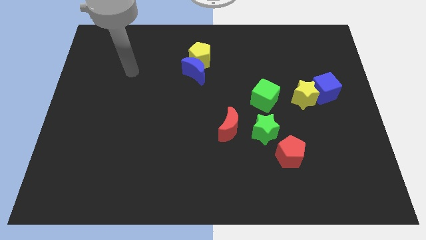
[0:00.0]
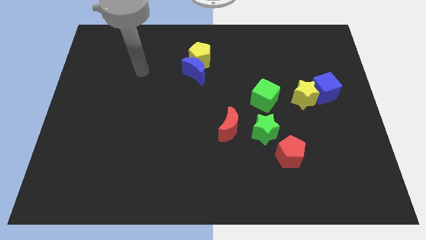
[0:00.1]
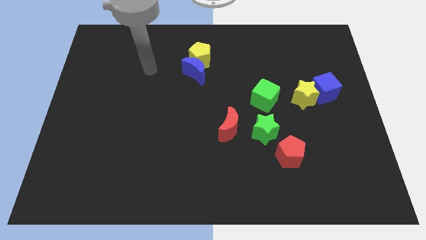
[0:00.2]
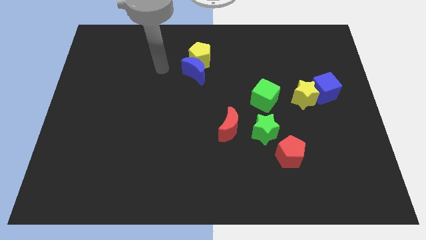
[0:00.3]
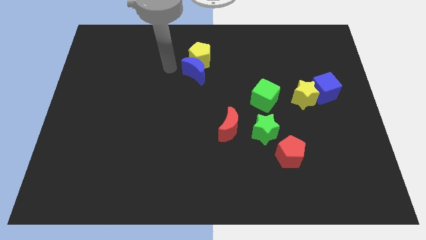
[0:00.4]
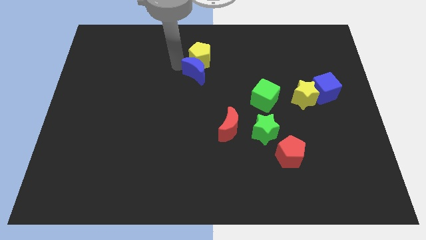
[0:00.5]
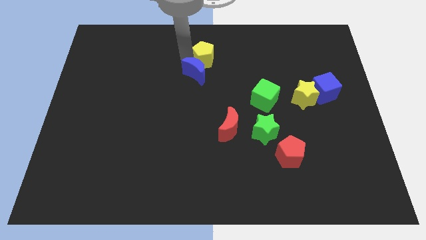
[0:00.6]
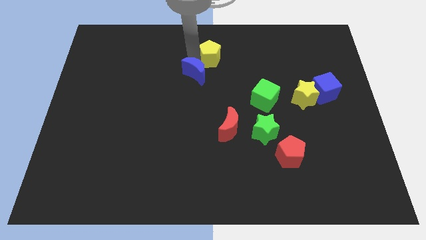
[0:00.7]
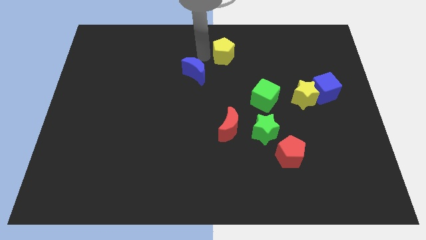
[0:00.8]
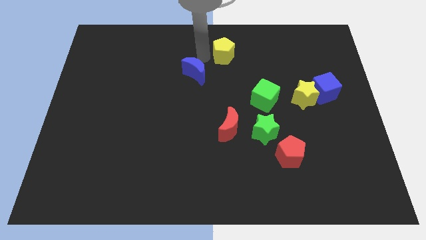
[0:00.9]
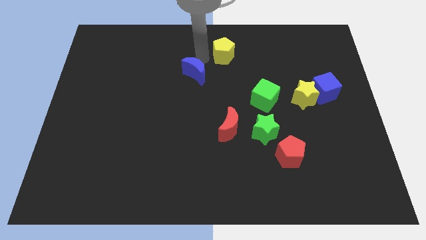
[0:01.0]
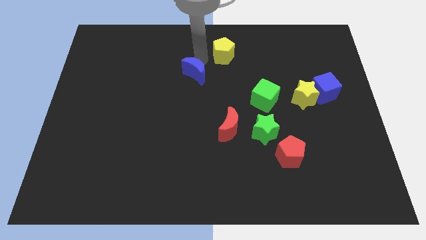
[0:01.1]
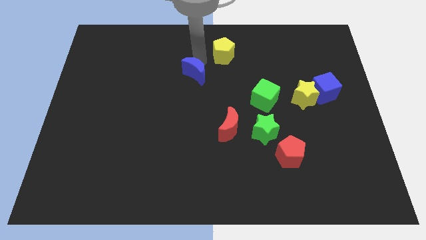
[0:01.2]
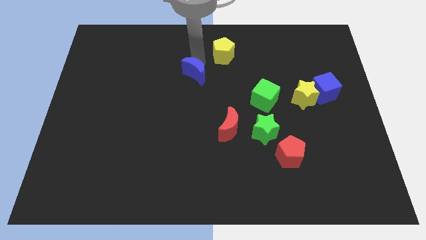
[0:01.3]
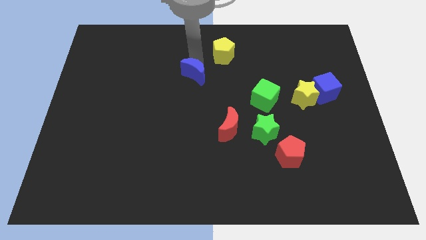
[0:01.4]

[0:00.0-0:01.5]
move the blue moon away from the yellow pentagon

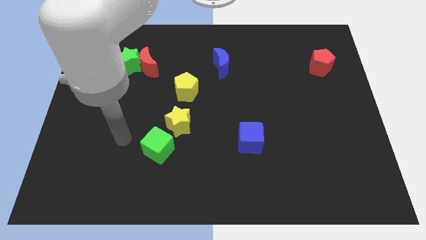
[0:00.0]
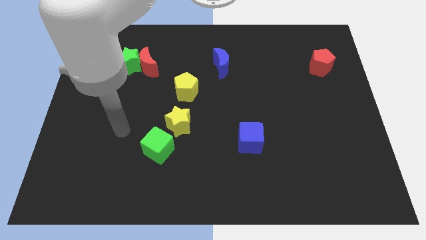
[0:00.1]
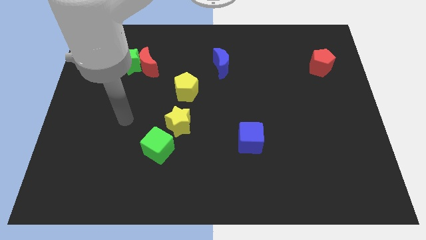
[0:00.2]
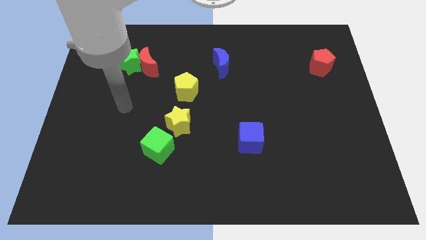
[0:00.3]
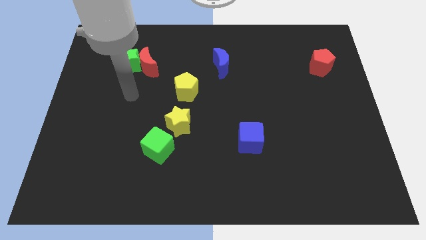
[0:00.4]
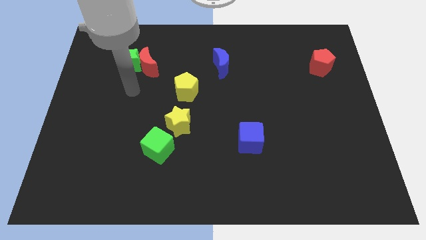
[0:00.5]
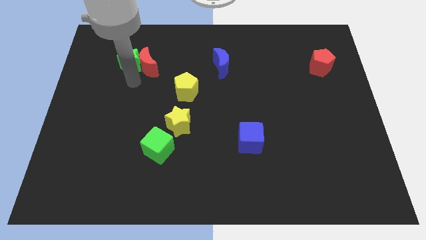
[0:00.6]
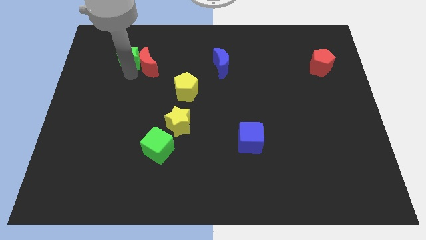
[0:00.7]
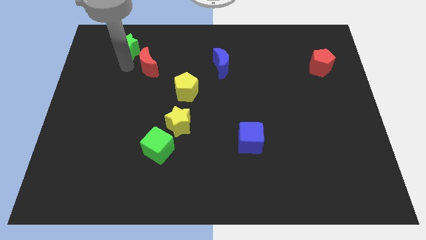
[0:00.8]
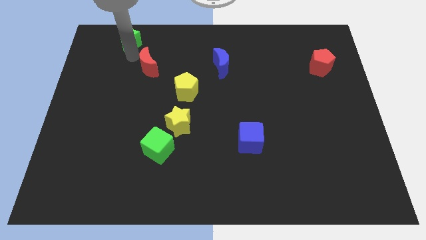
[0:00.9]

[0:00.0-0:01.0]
separate the red moon from the green star

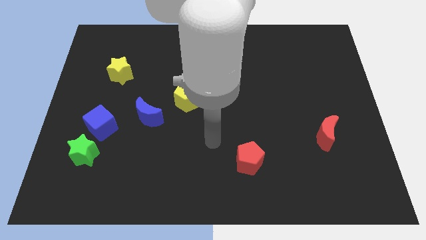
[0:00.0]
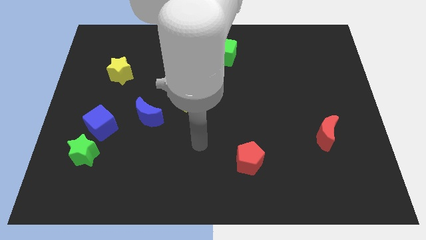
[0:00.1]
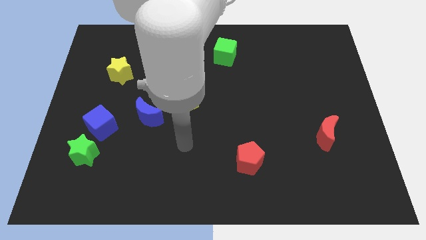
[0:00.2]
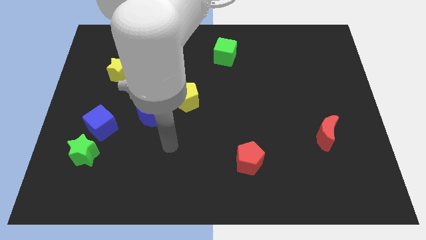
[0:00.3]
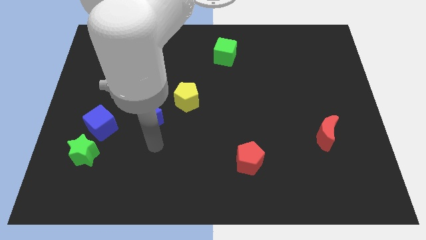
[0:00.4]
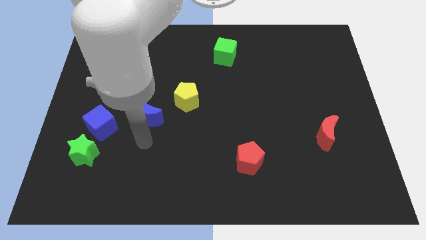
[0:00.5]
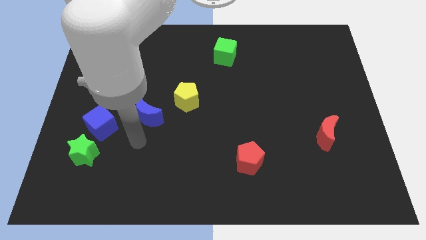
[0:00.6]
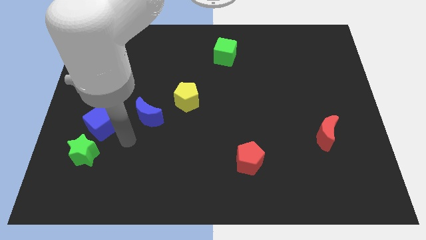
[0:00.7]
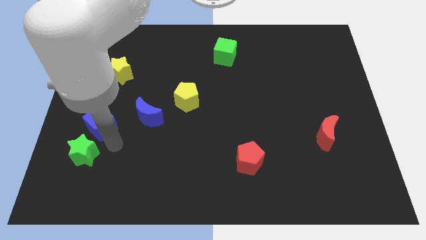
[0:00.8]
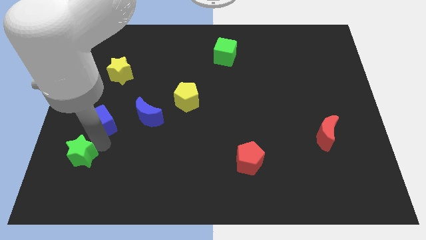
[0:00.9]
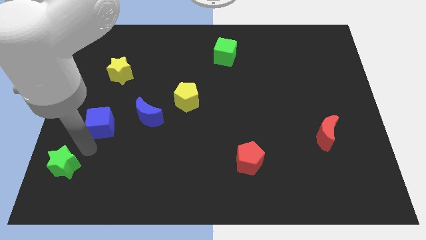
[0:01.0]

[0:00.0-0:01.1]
pull the blue cube apart from the green star

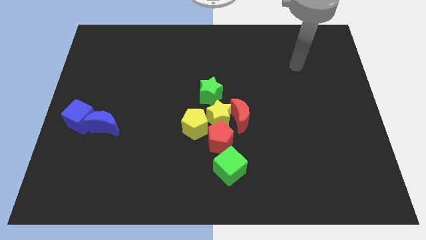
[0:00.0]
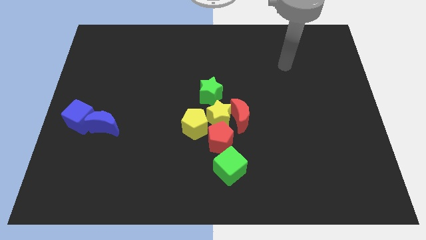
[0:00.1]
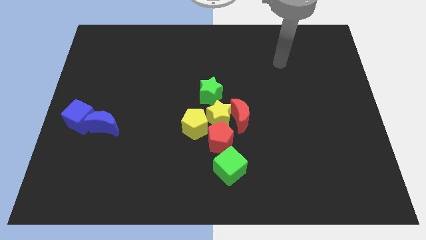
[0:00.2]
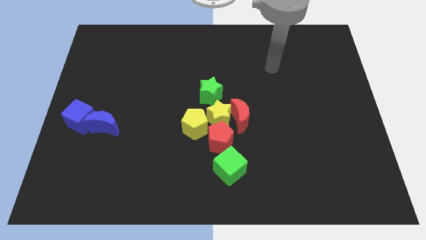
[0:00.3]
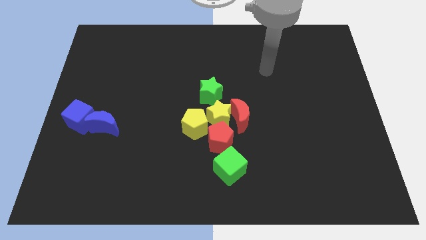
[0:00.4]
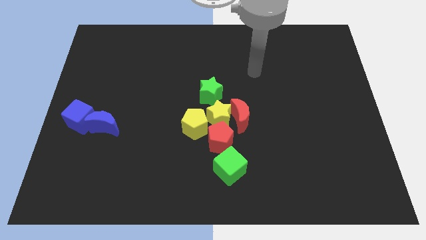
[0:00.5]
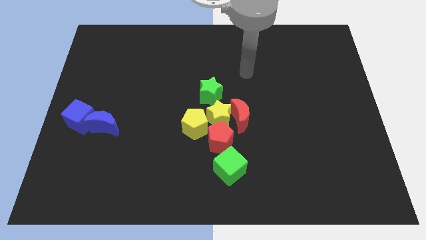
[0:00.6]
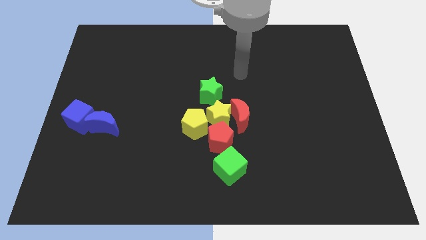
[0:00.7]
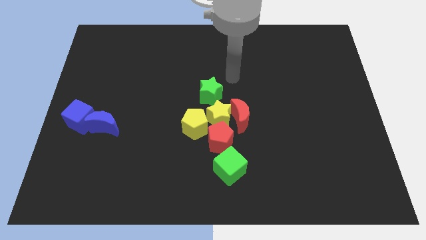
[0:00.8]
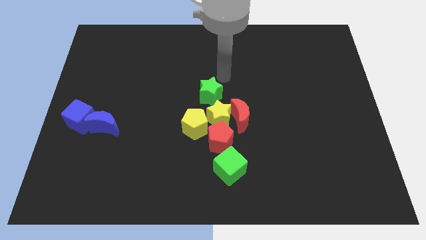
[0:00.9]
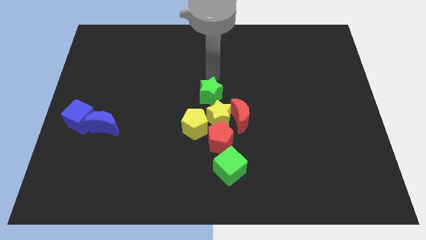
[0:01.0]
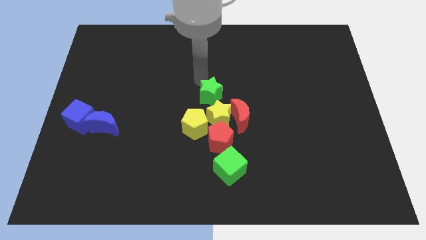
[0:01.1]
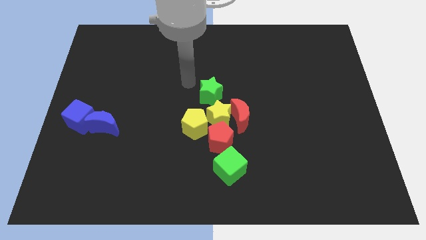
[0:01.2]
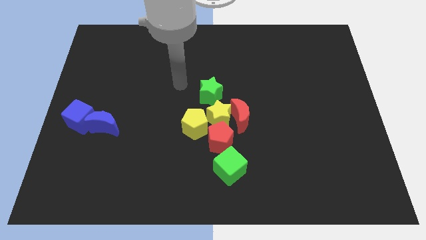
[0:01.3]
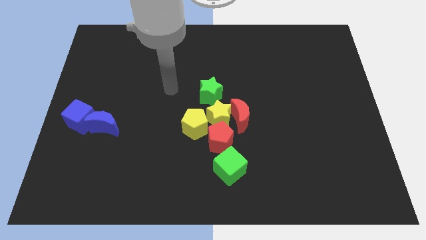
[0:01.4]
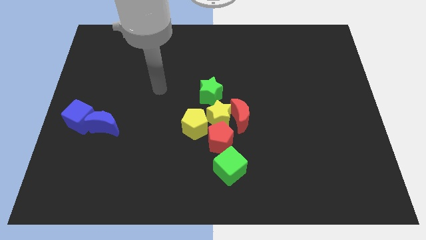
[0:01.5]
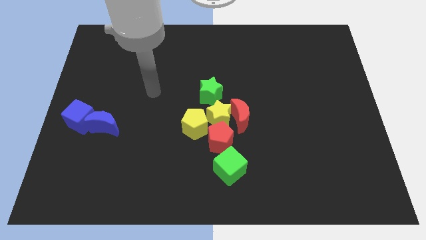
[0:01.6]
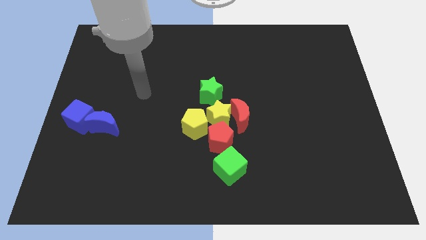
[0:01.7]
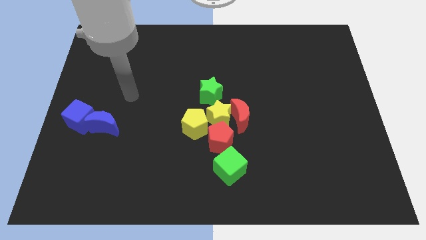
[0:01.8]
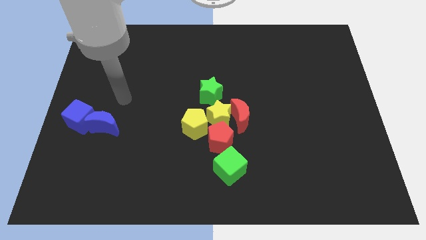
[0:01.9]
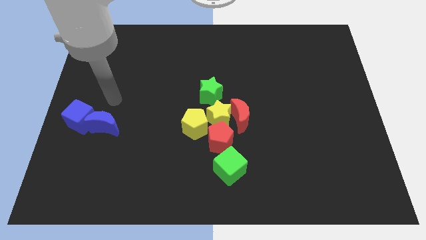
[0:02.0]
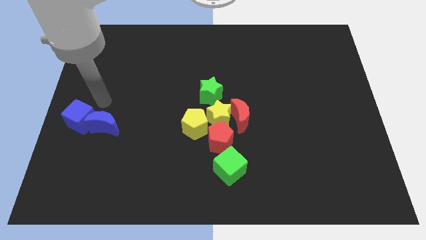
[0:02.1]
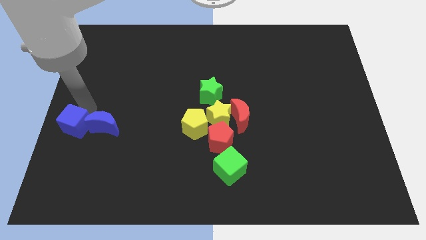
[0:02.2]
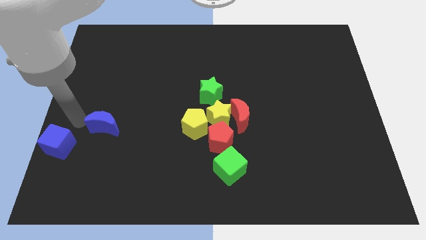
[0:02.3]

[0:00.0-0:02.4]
pull the blue moon apart from the blue cube

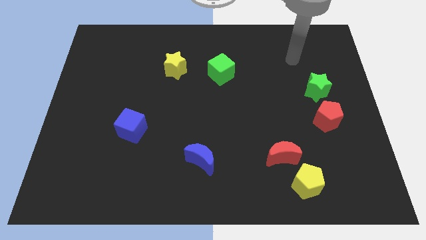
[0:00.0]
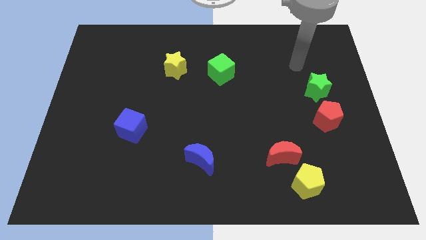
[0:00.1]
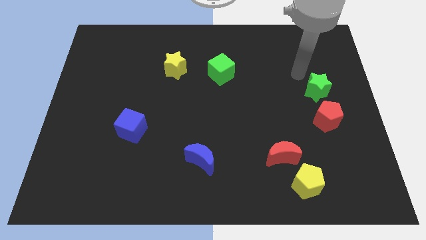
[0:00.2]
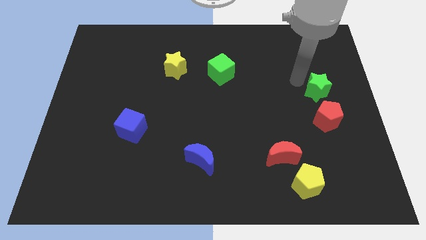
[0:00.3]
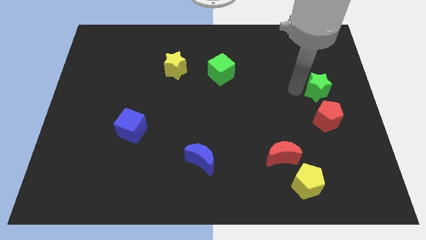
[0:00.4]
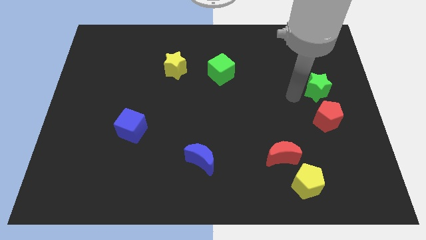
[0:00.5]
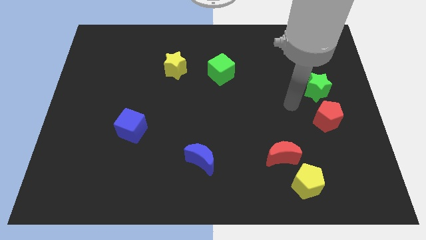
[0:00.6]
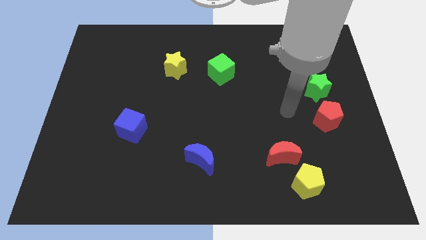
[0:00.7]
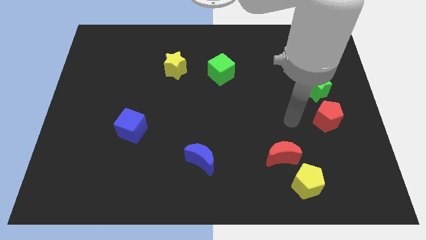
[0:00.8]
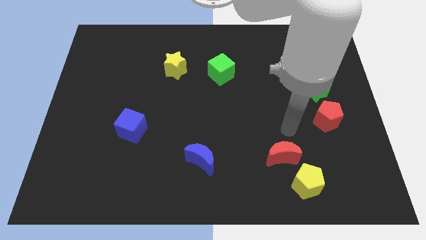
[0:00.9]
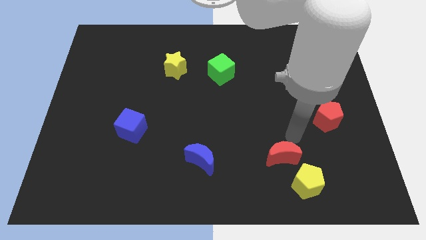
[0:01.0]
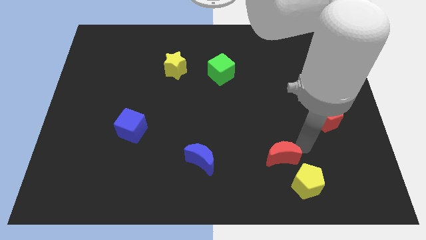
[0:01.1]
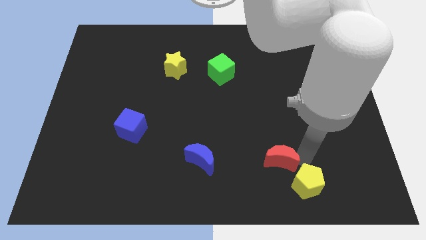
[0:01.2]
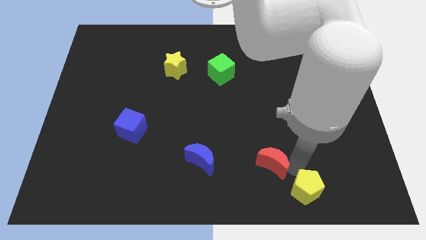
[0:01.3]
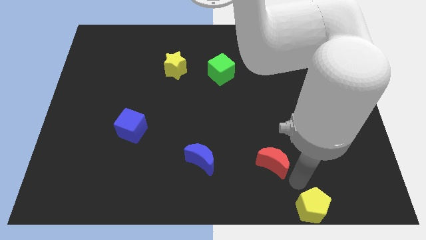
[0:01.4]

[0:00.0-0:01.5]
move the red moon away from the yellow pentagon

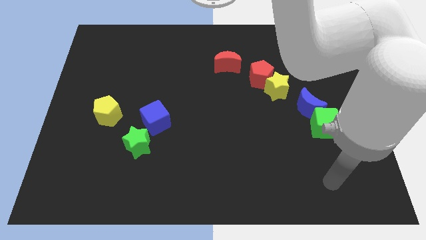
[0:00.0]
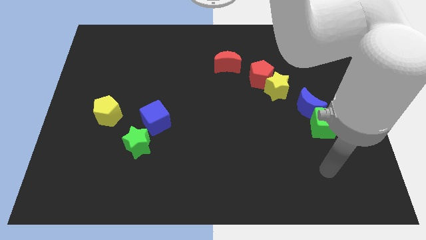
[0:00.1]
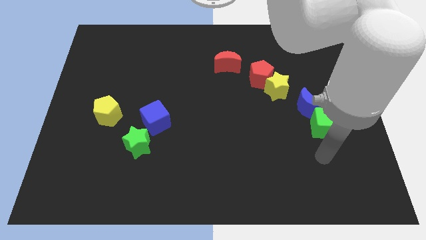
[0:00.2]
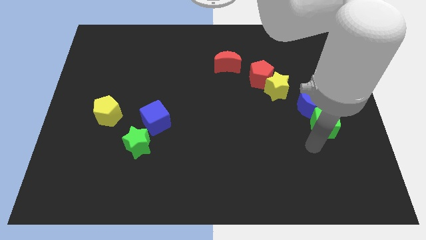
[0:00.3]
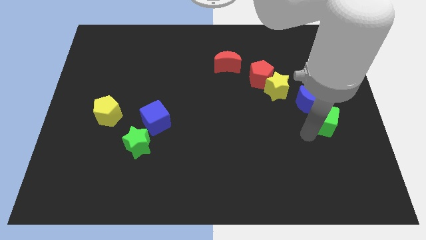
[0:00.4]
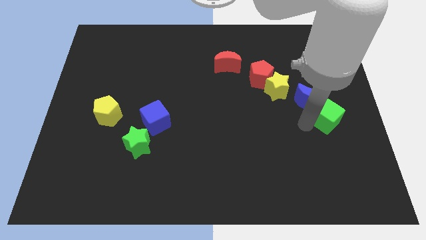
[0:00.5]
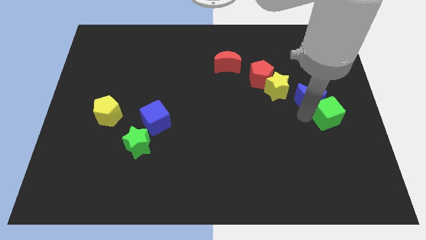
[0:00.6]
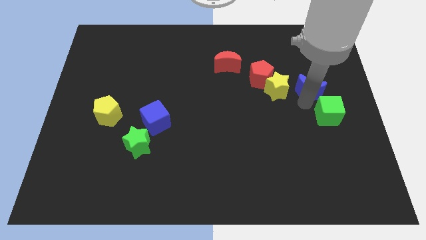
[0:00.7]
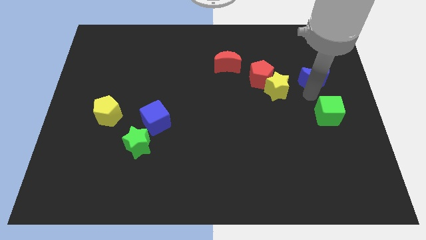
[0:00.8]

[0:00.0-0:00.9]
pull the green cube apart from the blue moon

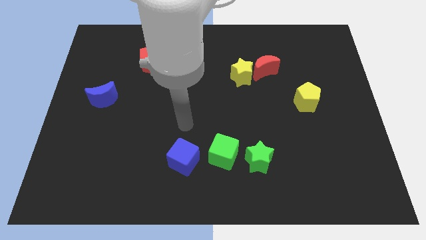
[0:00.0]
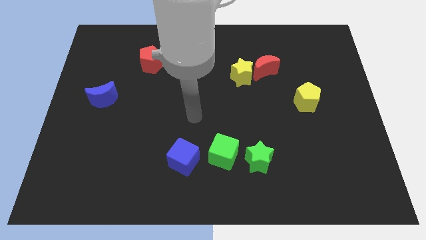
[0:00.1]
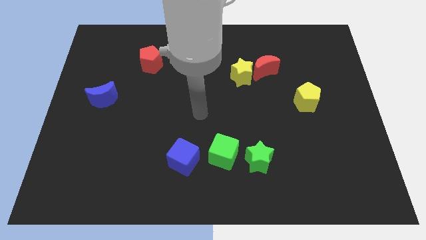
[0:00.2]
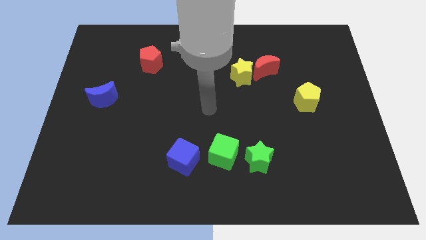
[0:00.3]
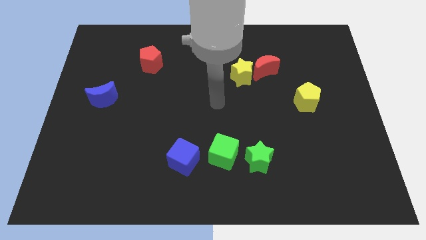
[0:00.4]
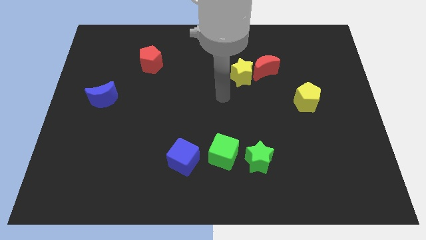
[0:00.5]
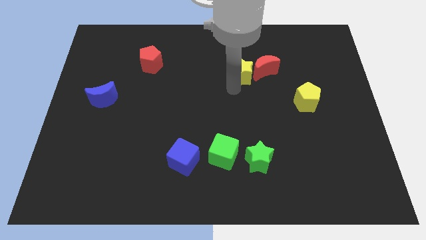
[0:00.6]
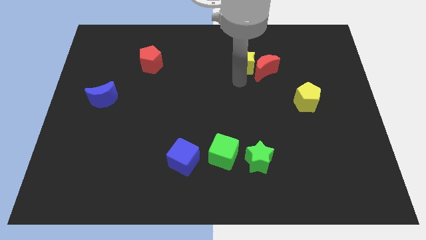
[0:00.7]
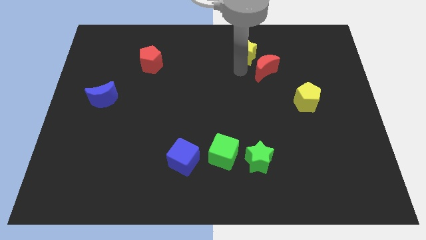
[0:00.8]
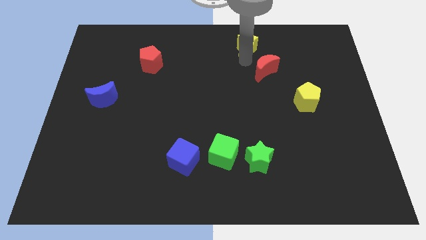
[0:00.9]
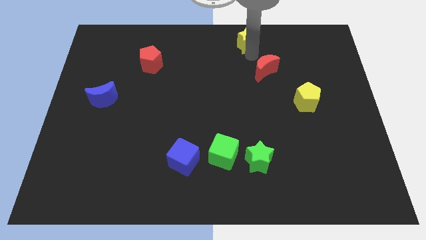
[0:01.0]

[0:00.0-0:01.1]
pull the red moon apart from the yellow star
